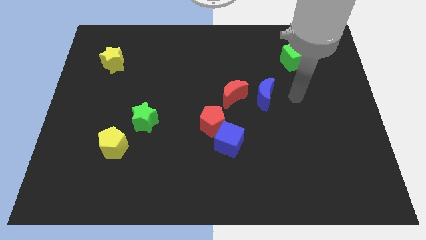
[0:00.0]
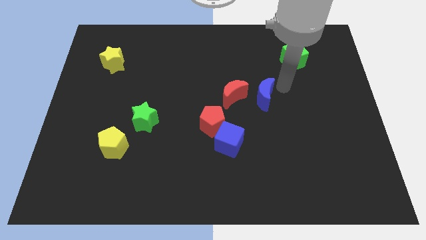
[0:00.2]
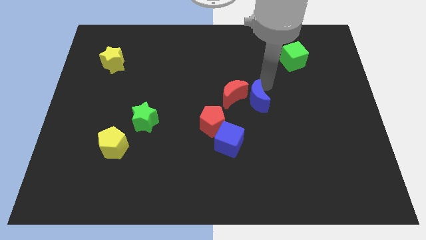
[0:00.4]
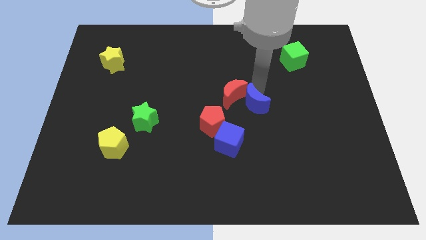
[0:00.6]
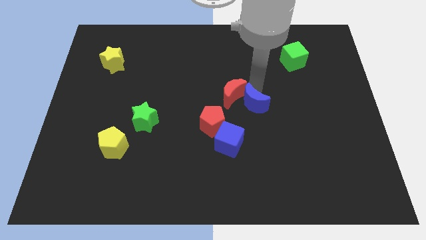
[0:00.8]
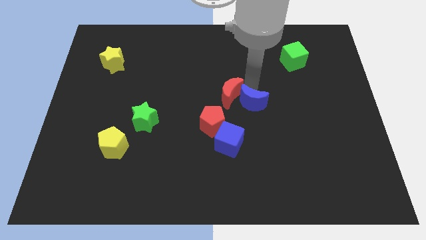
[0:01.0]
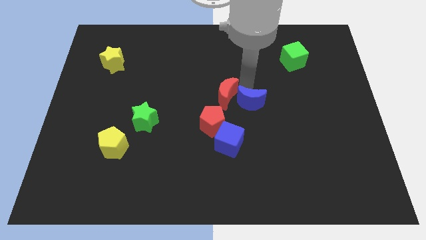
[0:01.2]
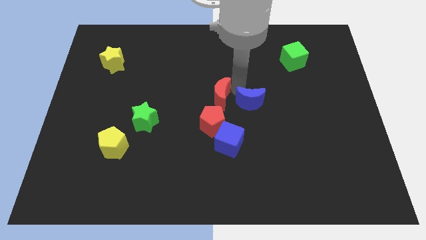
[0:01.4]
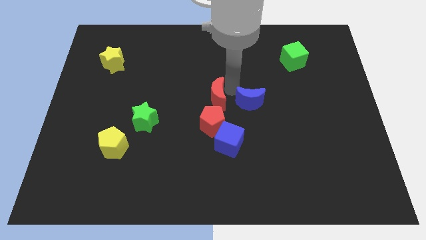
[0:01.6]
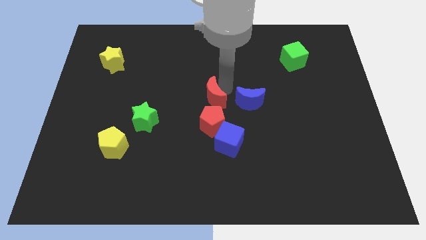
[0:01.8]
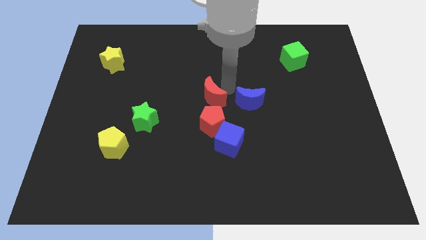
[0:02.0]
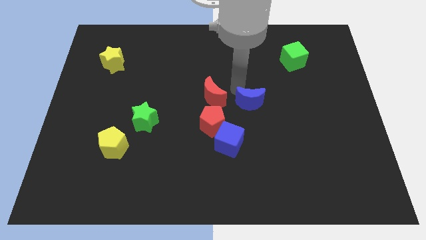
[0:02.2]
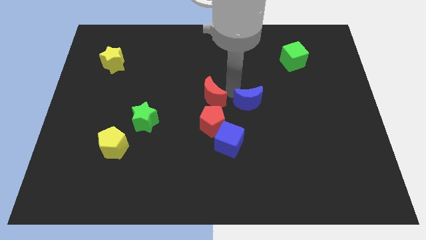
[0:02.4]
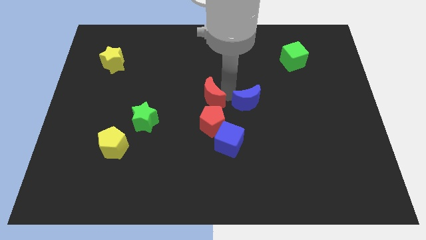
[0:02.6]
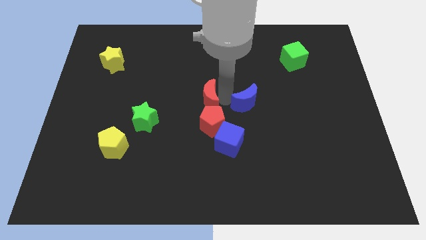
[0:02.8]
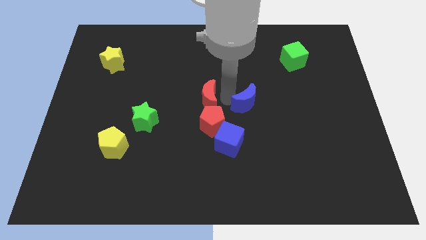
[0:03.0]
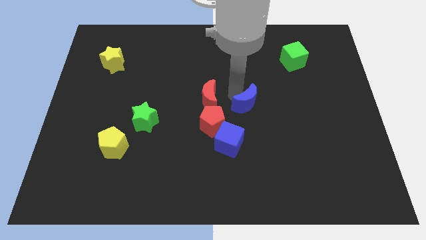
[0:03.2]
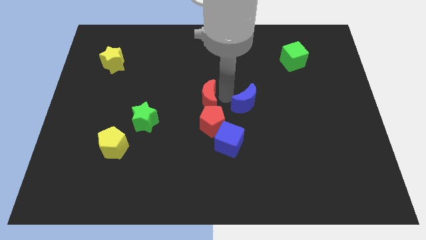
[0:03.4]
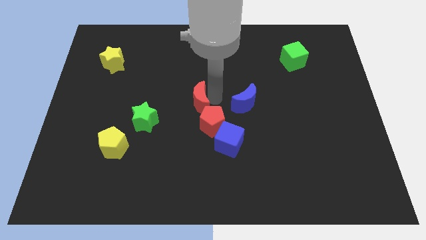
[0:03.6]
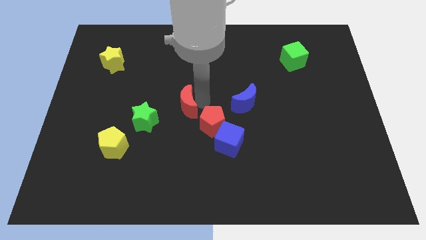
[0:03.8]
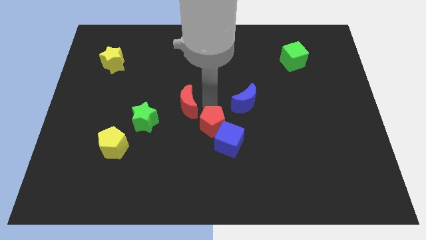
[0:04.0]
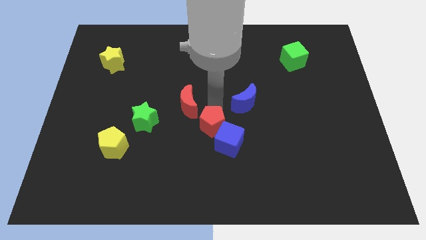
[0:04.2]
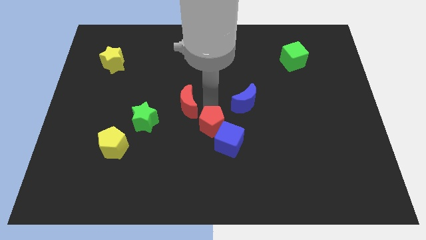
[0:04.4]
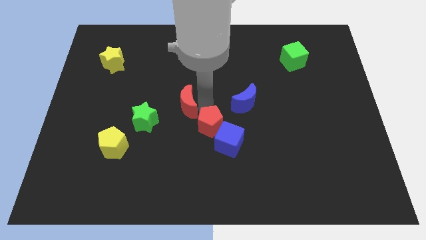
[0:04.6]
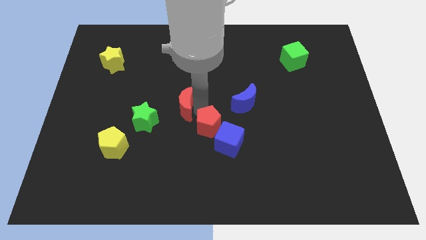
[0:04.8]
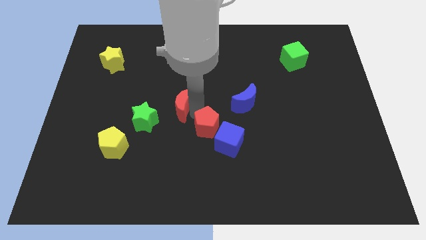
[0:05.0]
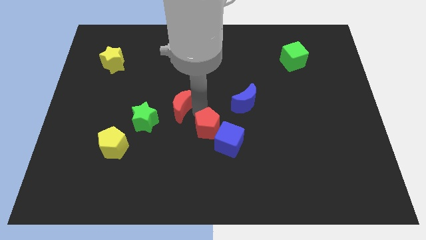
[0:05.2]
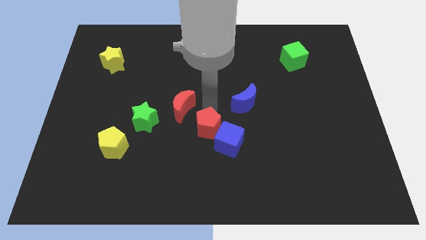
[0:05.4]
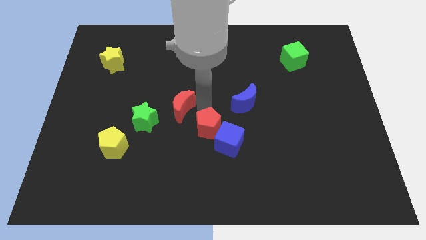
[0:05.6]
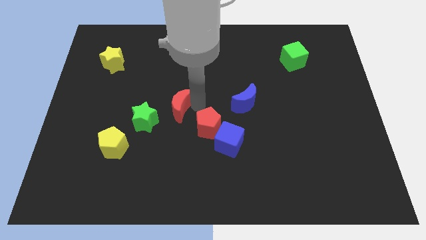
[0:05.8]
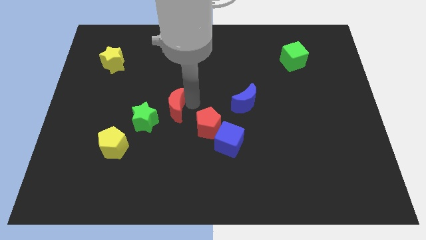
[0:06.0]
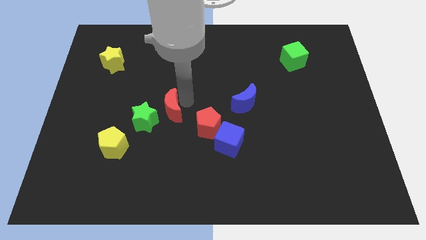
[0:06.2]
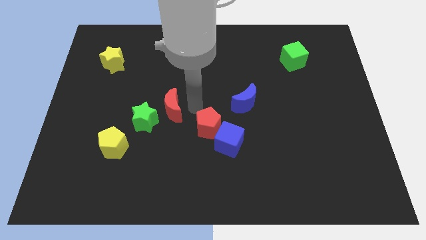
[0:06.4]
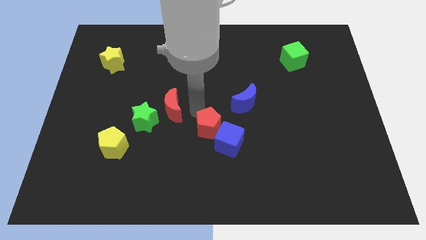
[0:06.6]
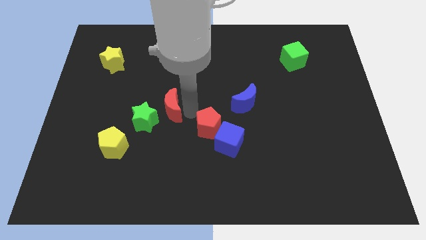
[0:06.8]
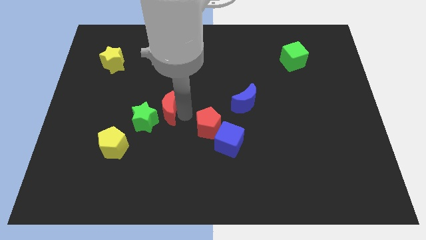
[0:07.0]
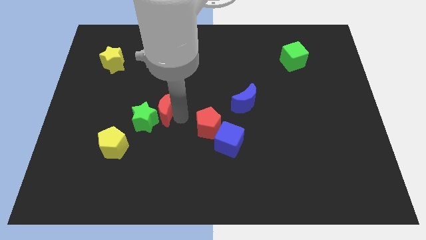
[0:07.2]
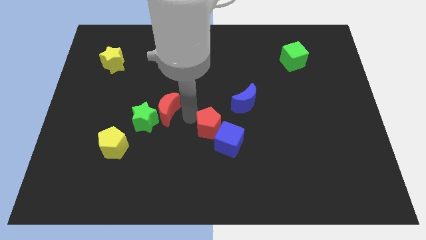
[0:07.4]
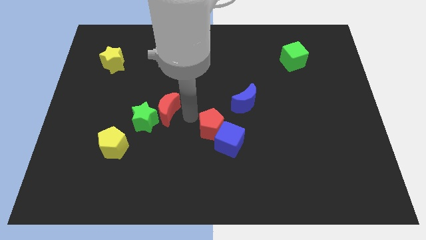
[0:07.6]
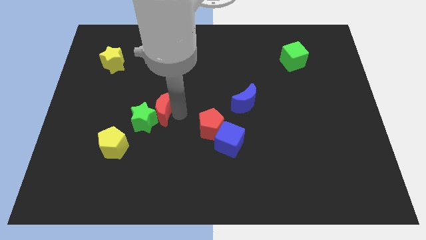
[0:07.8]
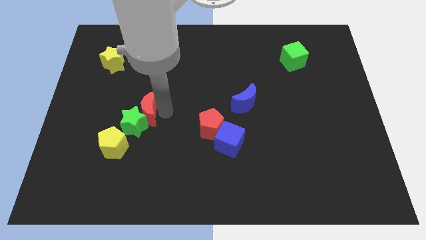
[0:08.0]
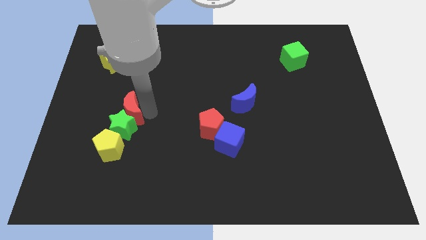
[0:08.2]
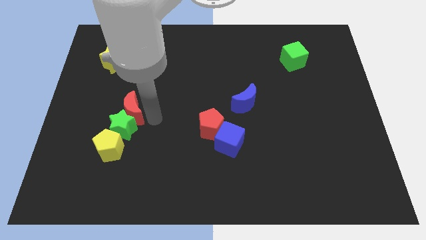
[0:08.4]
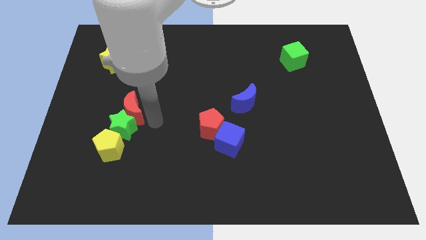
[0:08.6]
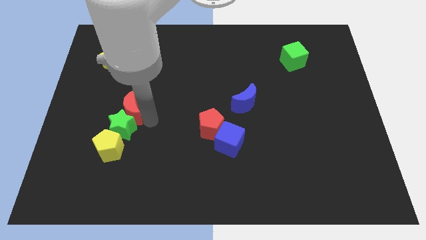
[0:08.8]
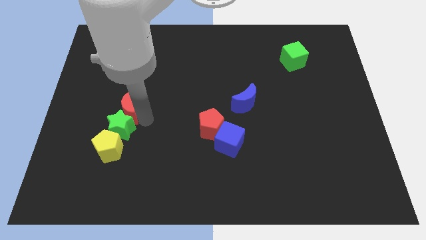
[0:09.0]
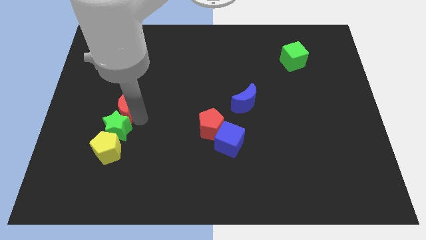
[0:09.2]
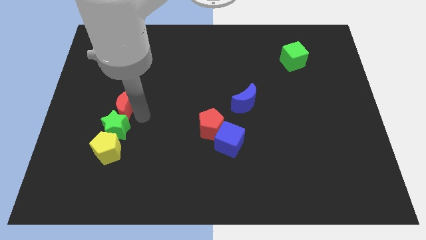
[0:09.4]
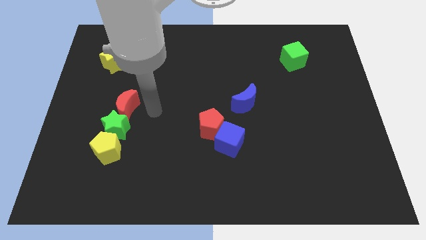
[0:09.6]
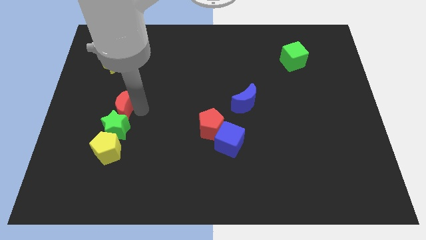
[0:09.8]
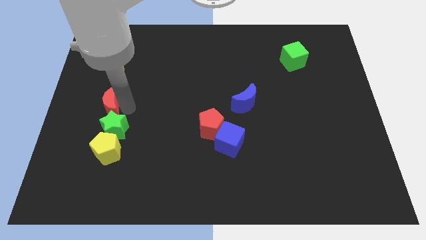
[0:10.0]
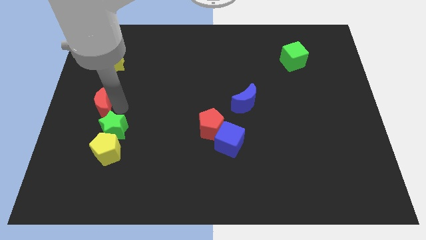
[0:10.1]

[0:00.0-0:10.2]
move the red moon to the center left

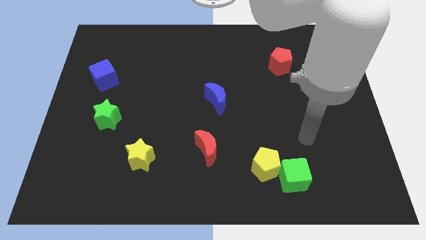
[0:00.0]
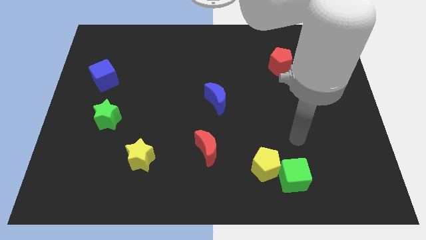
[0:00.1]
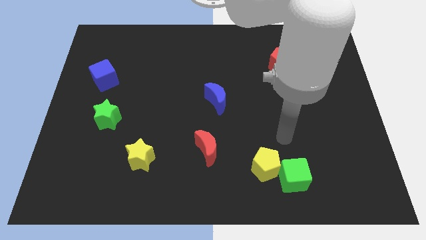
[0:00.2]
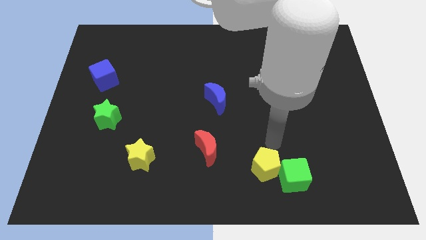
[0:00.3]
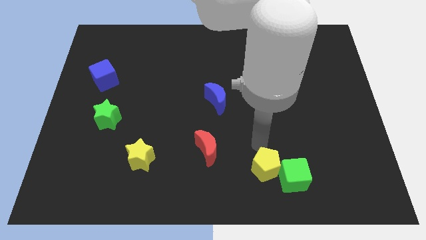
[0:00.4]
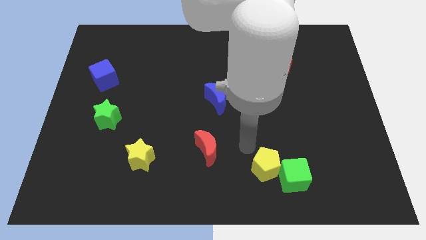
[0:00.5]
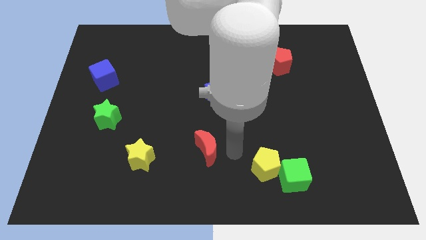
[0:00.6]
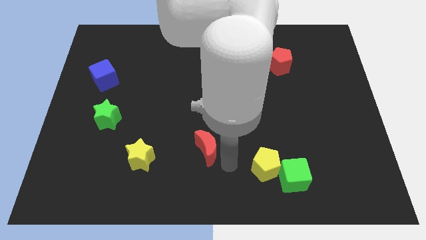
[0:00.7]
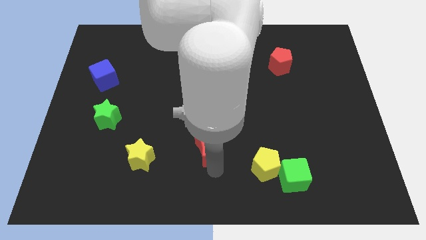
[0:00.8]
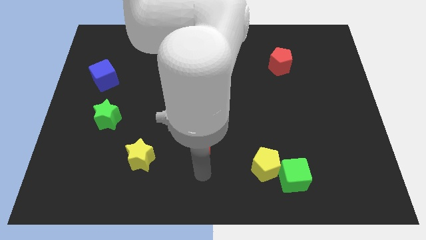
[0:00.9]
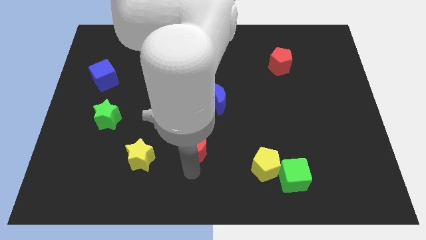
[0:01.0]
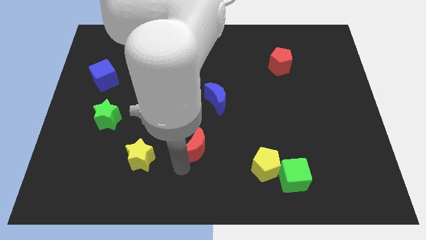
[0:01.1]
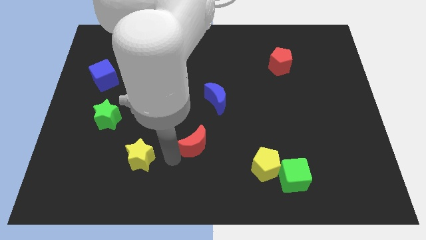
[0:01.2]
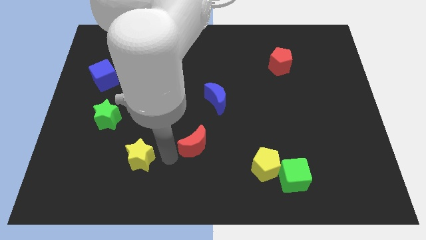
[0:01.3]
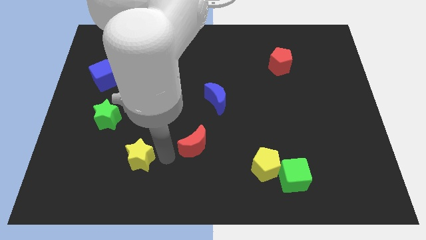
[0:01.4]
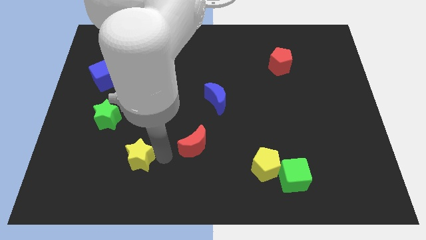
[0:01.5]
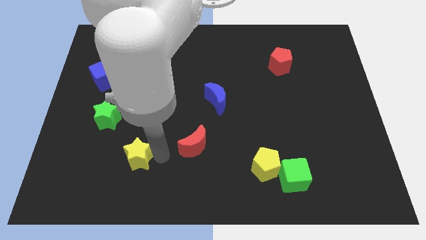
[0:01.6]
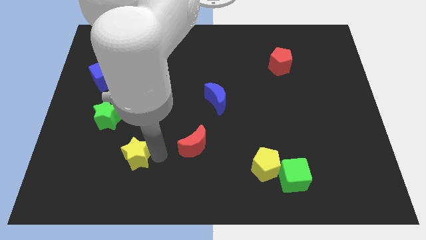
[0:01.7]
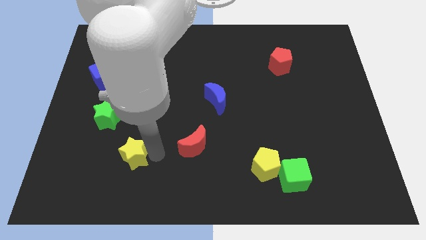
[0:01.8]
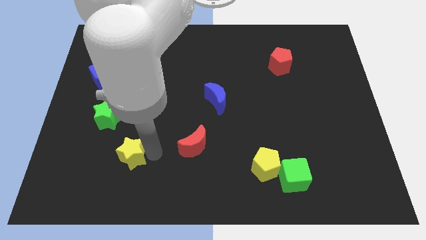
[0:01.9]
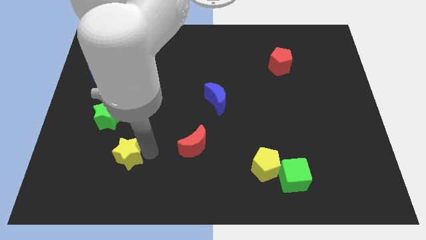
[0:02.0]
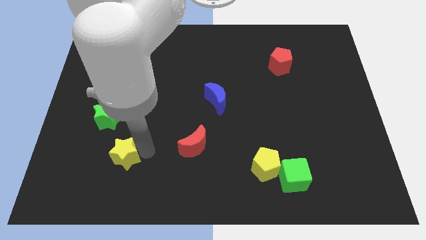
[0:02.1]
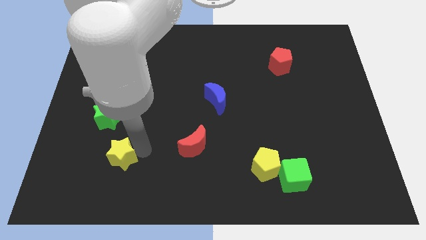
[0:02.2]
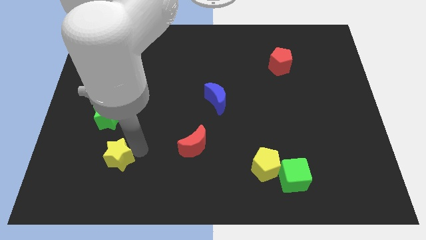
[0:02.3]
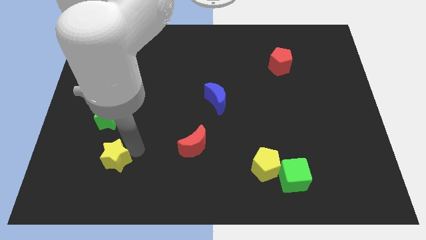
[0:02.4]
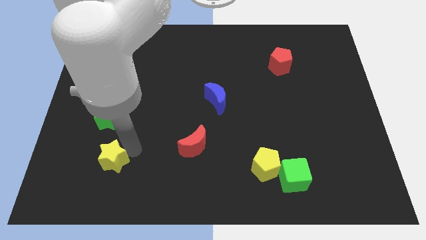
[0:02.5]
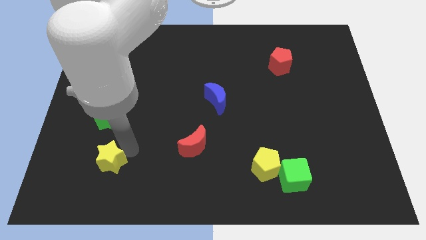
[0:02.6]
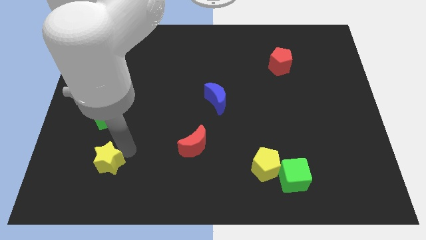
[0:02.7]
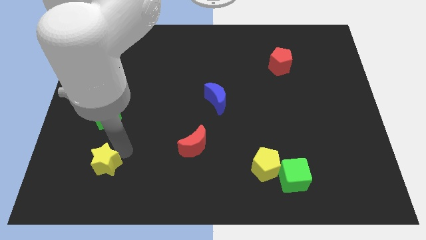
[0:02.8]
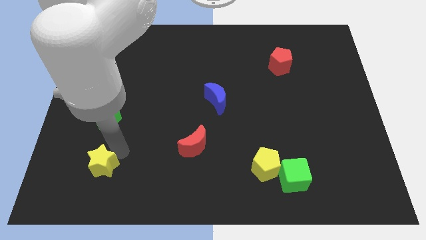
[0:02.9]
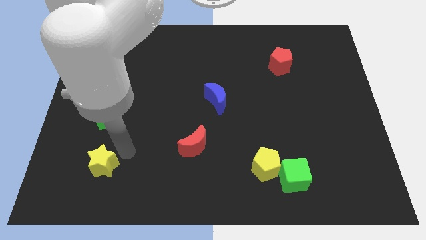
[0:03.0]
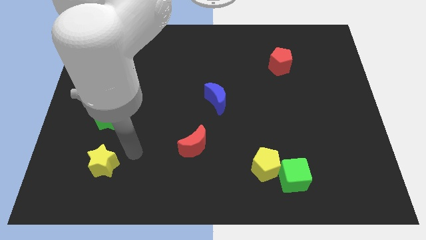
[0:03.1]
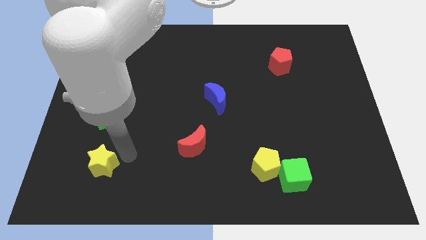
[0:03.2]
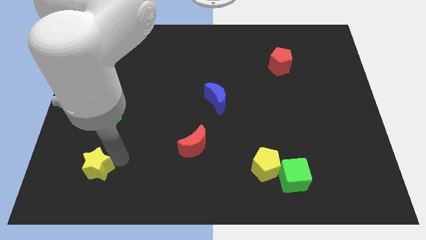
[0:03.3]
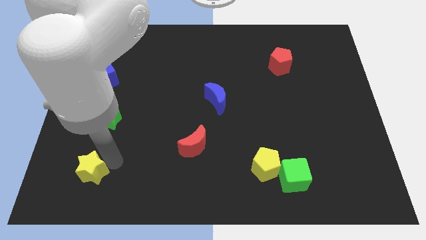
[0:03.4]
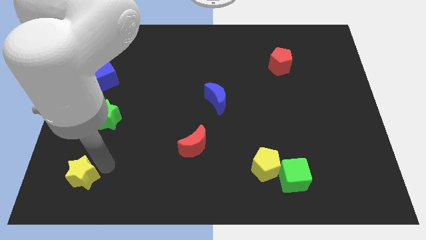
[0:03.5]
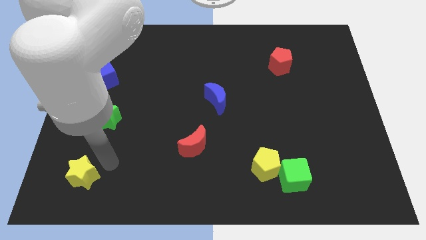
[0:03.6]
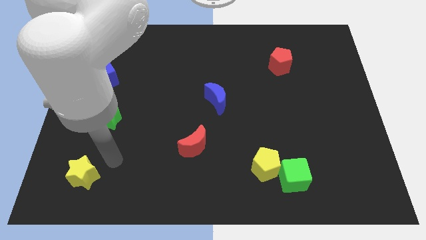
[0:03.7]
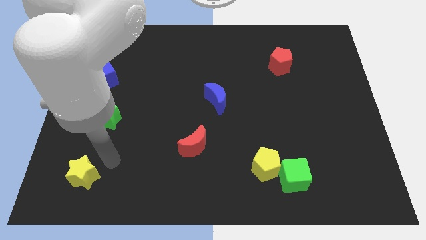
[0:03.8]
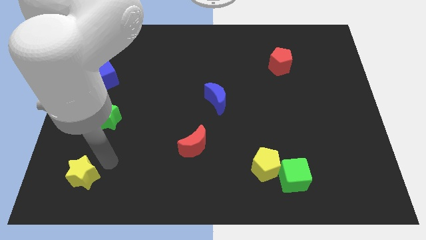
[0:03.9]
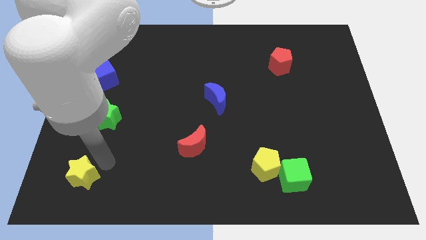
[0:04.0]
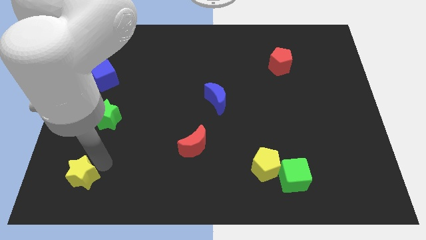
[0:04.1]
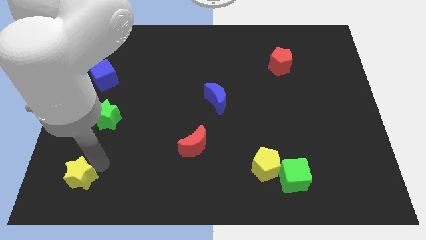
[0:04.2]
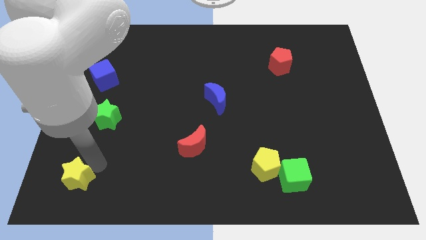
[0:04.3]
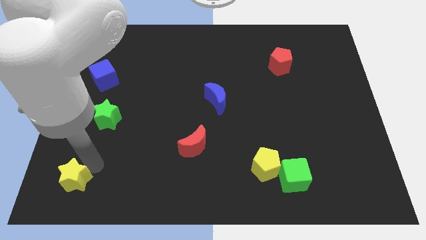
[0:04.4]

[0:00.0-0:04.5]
put the yellow star to the lower left corner
